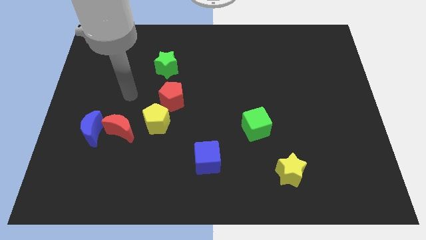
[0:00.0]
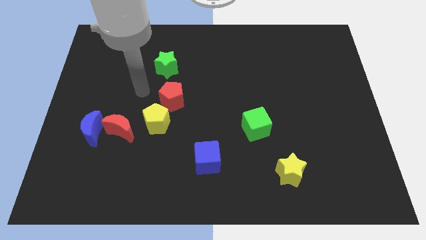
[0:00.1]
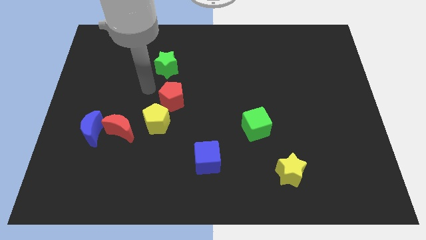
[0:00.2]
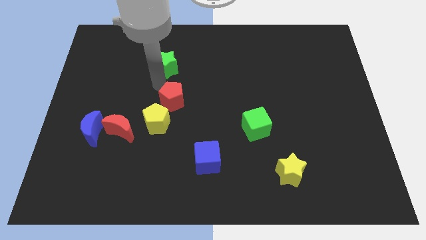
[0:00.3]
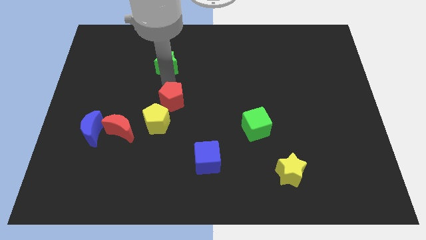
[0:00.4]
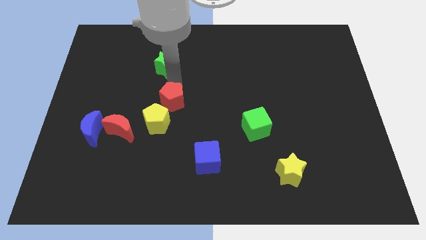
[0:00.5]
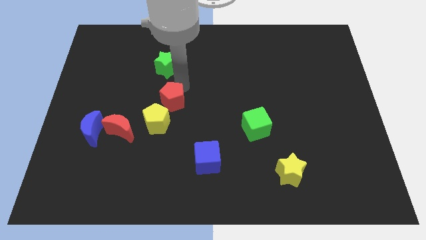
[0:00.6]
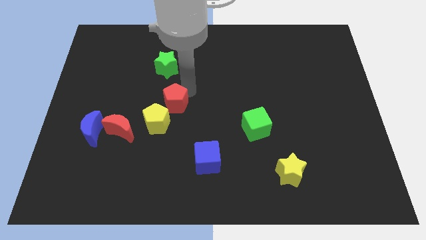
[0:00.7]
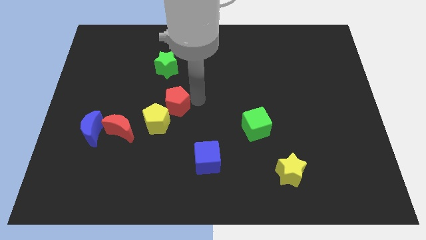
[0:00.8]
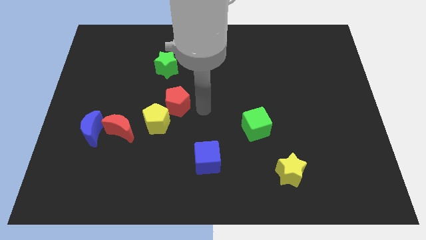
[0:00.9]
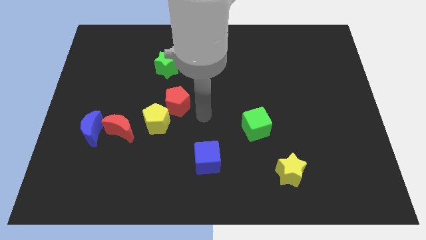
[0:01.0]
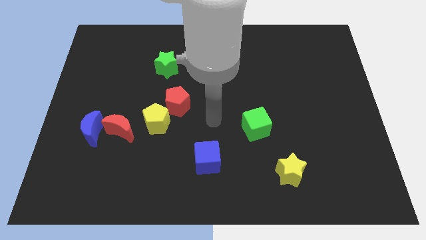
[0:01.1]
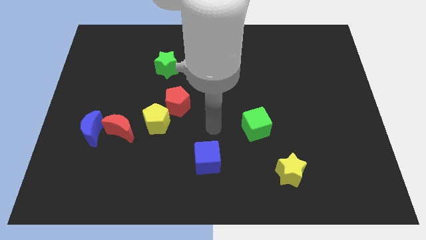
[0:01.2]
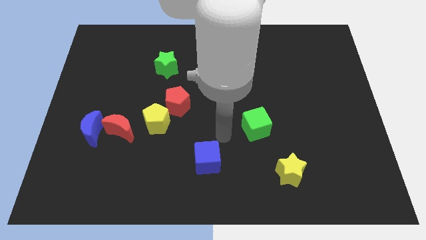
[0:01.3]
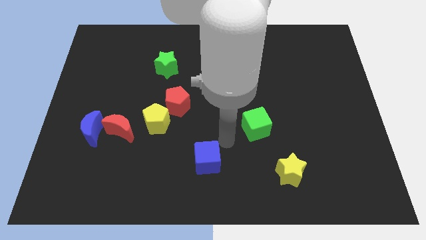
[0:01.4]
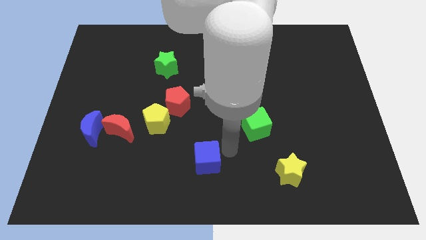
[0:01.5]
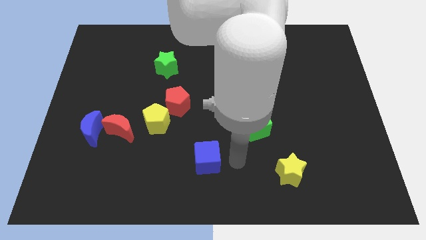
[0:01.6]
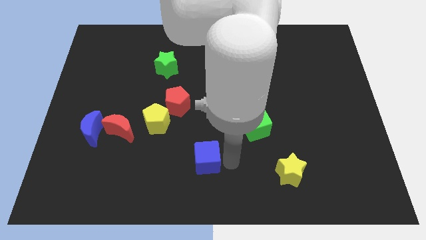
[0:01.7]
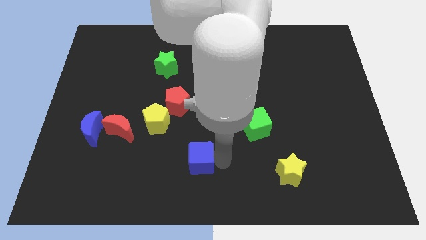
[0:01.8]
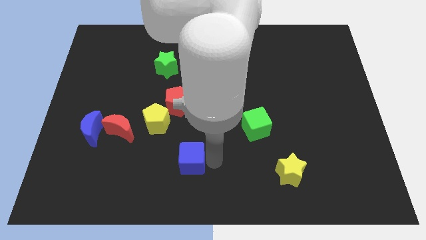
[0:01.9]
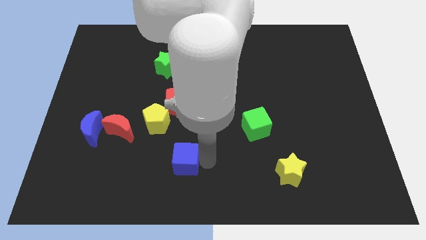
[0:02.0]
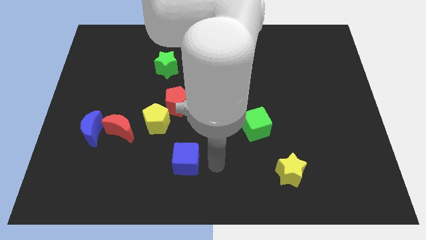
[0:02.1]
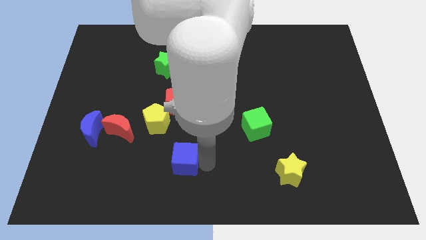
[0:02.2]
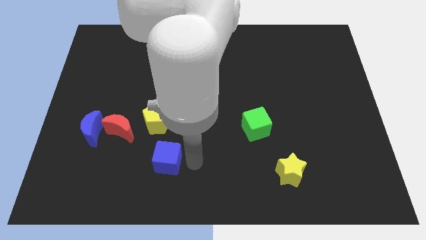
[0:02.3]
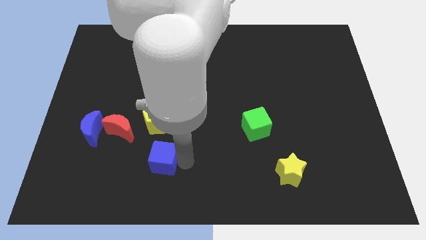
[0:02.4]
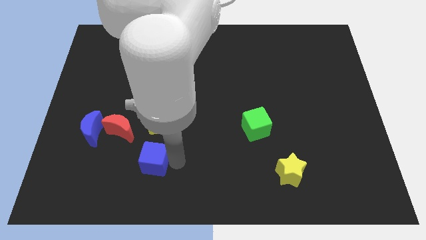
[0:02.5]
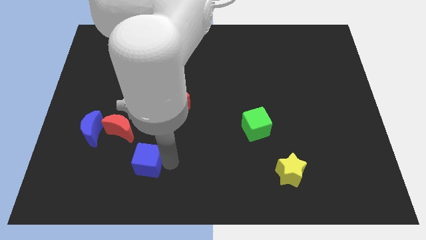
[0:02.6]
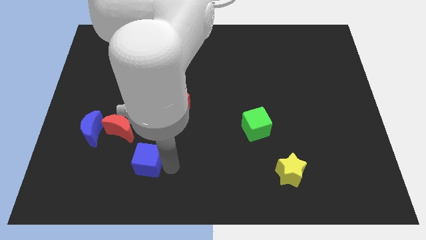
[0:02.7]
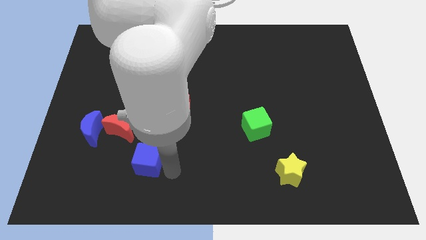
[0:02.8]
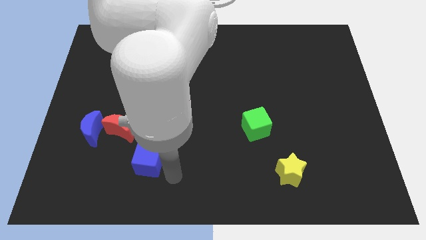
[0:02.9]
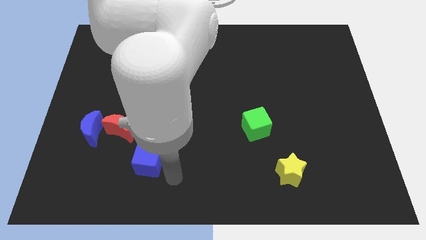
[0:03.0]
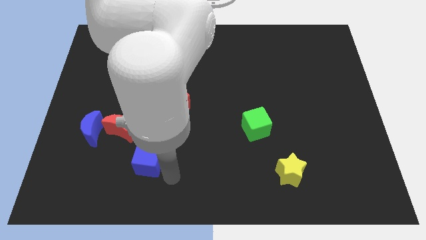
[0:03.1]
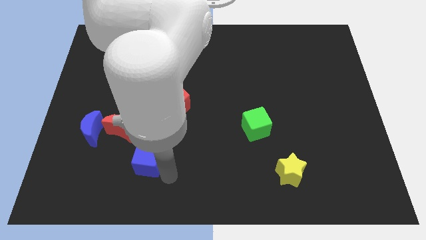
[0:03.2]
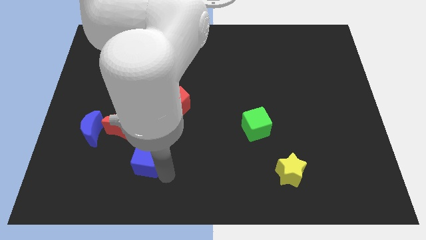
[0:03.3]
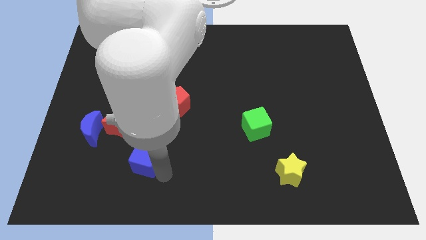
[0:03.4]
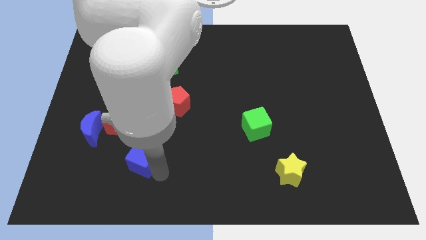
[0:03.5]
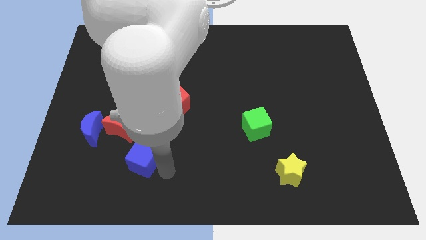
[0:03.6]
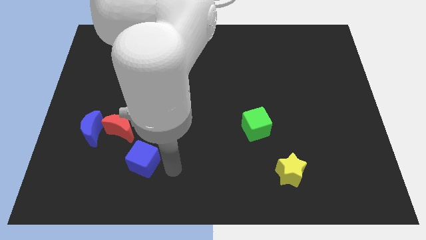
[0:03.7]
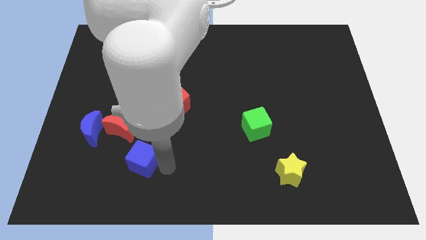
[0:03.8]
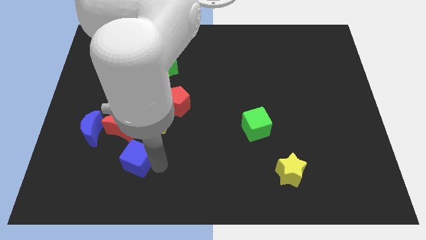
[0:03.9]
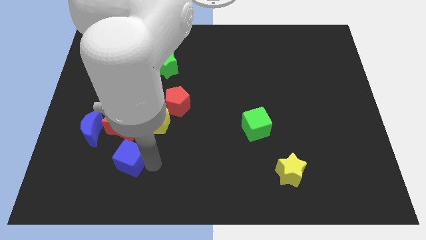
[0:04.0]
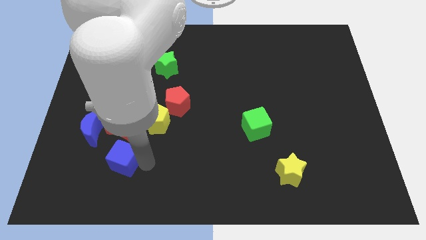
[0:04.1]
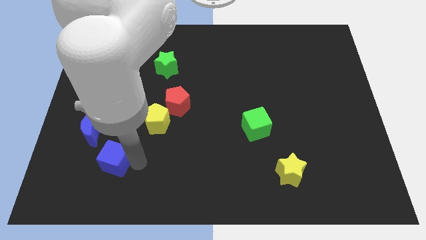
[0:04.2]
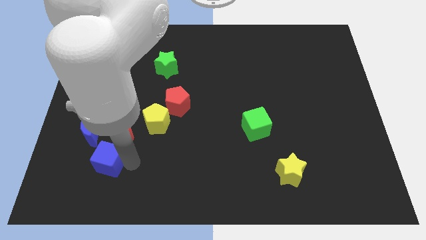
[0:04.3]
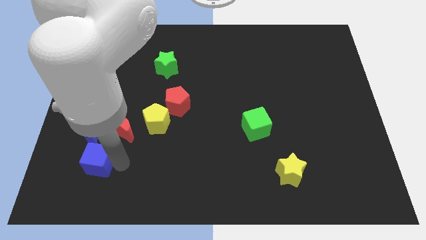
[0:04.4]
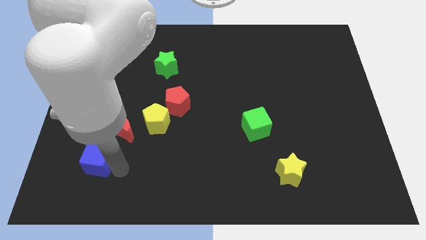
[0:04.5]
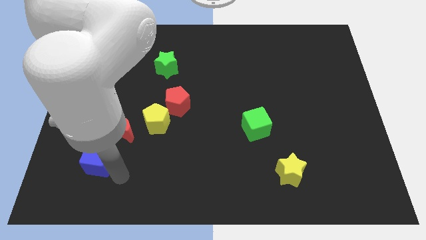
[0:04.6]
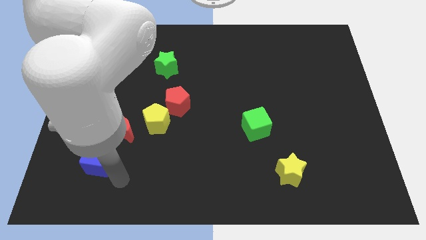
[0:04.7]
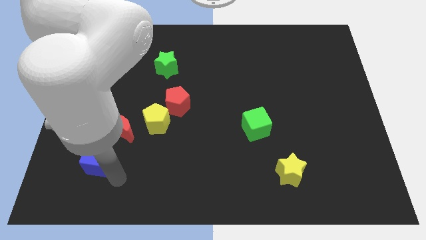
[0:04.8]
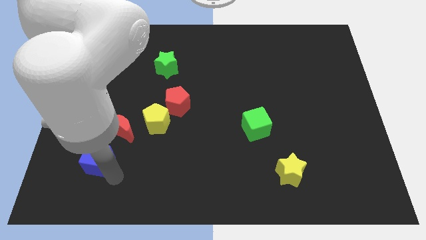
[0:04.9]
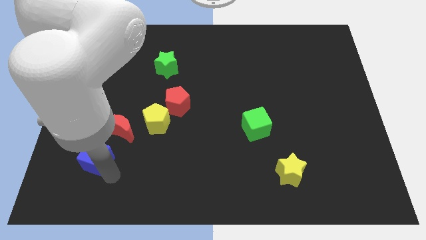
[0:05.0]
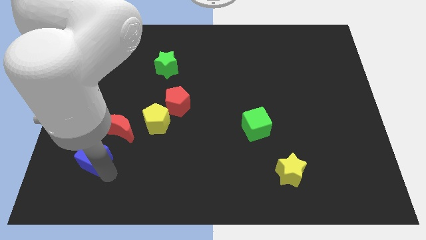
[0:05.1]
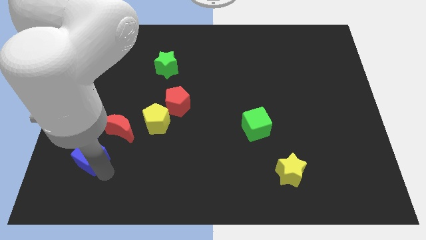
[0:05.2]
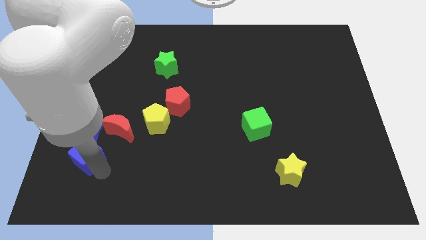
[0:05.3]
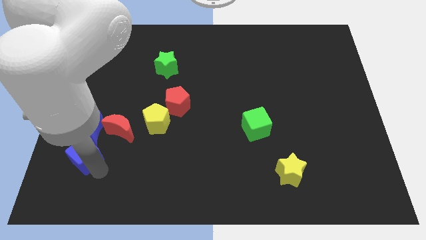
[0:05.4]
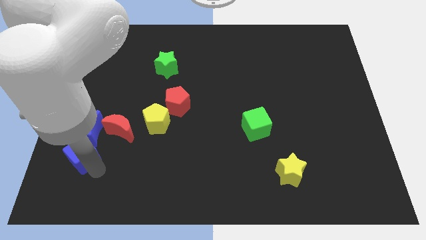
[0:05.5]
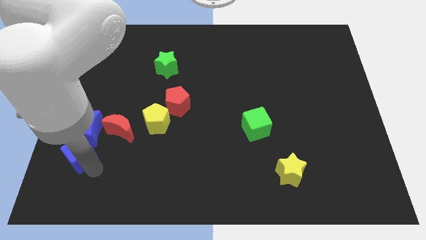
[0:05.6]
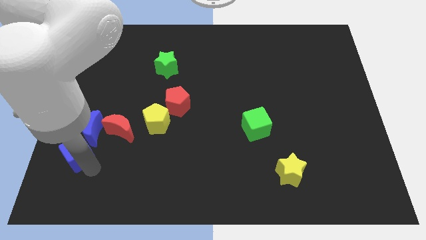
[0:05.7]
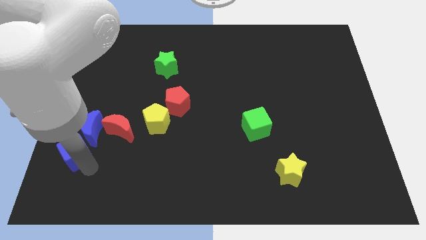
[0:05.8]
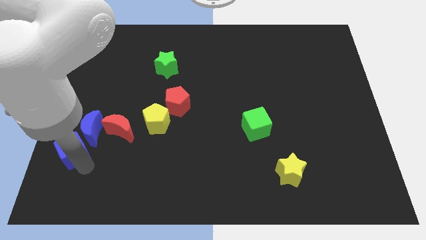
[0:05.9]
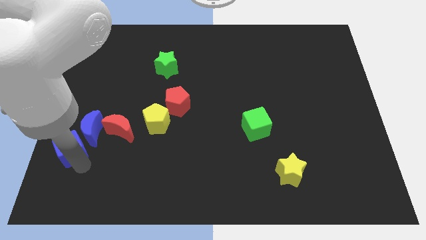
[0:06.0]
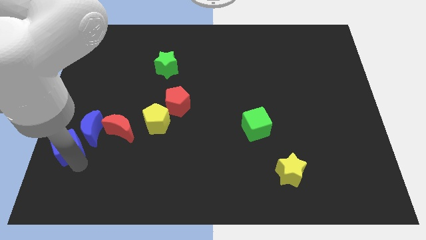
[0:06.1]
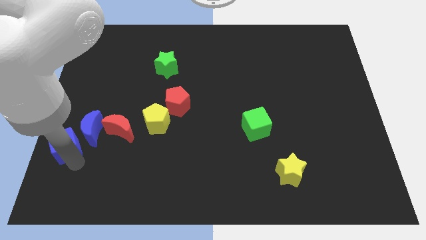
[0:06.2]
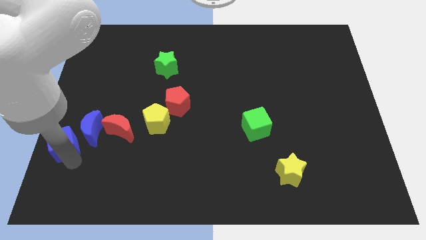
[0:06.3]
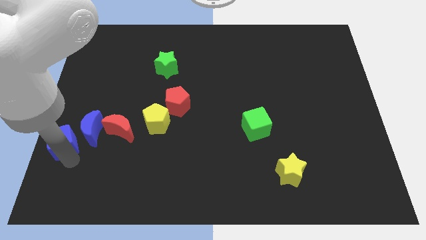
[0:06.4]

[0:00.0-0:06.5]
put the blue cube to the left side

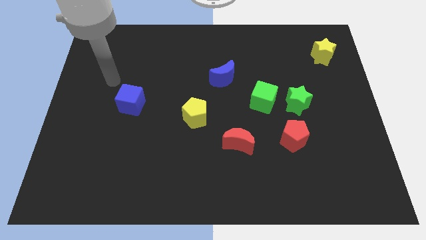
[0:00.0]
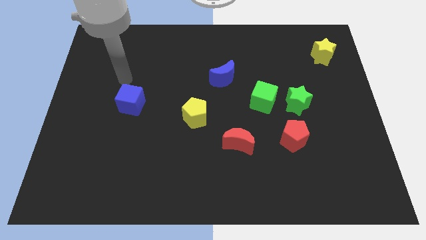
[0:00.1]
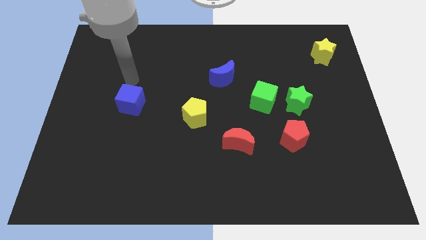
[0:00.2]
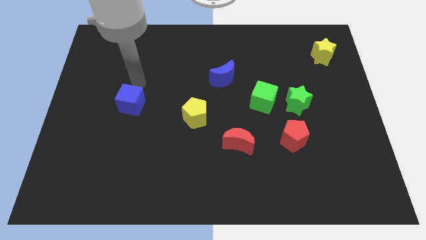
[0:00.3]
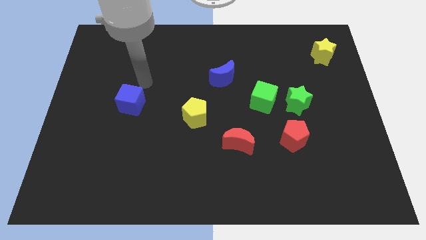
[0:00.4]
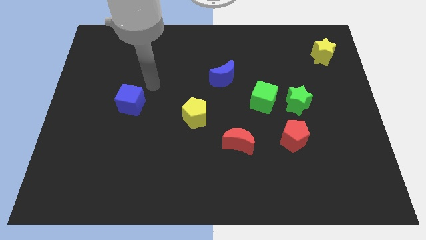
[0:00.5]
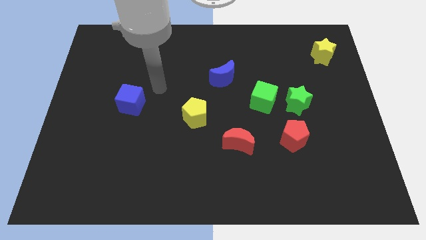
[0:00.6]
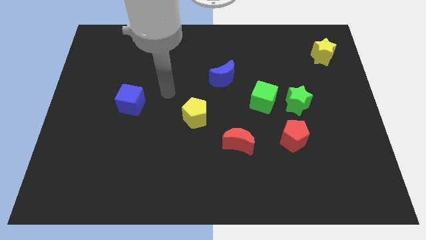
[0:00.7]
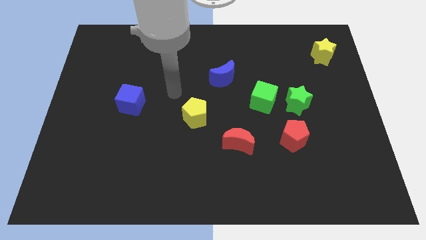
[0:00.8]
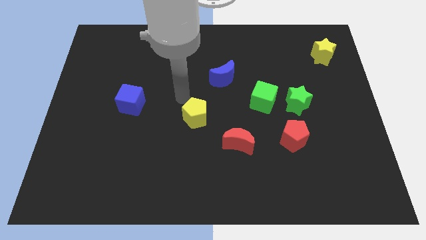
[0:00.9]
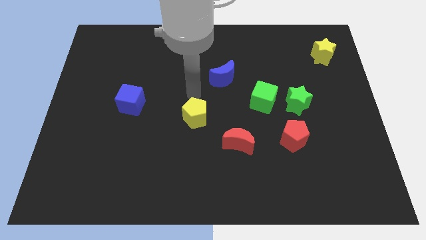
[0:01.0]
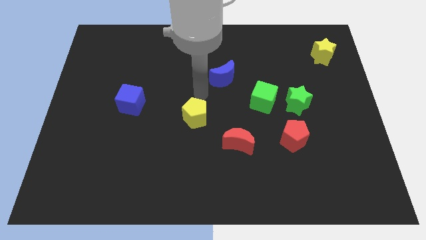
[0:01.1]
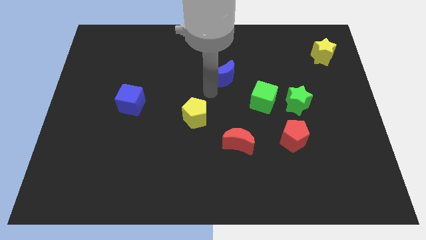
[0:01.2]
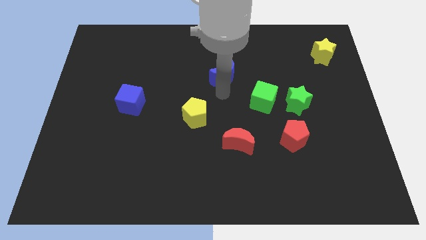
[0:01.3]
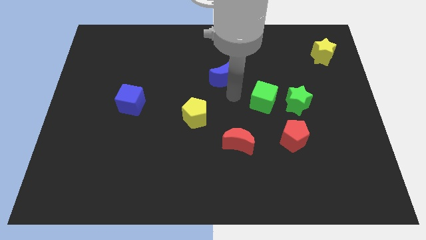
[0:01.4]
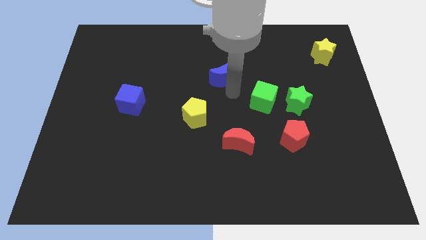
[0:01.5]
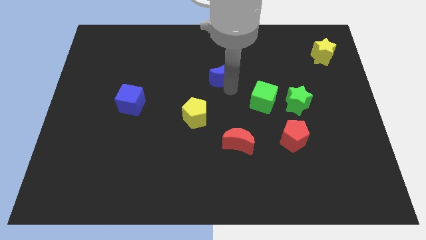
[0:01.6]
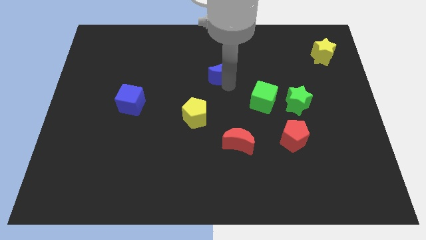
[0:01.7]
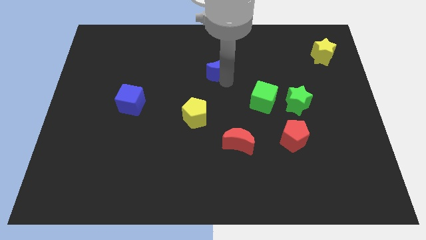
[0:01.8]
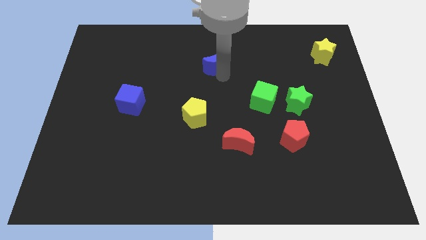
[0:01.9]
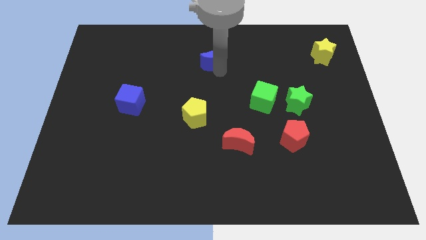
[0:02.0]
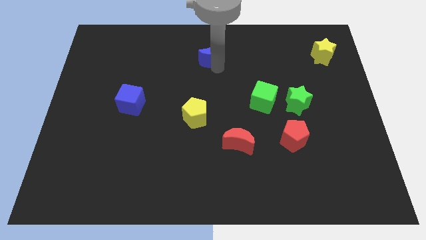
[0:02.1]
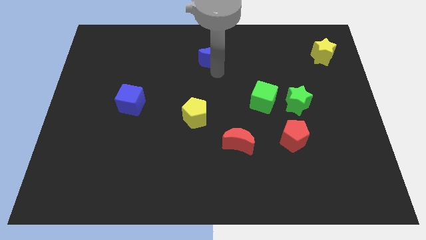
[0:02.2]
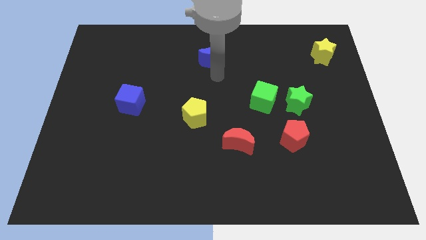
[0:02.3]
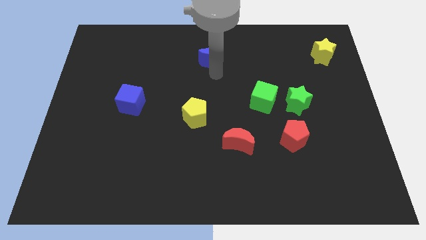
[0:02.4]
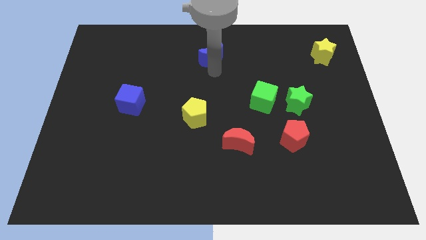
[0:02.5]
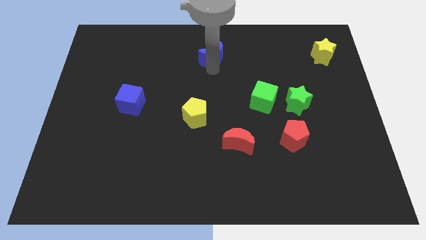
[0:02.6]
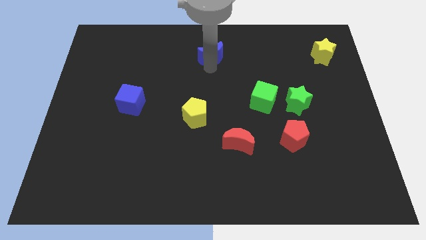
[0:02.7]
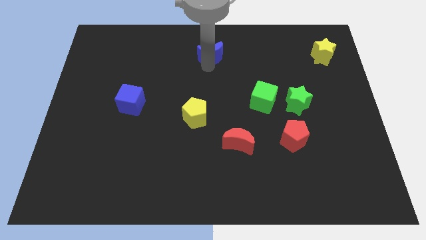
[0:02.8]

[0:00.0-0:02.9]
move the blue moon to the top side
